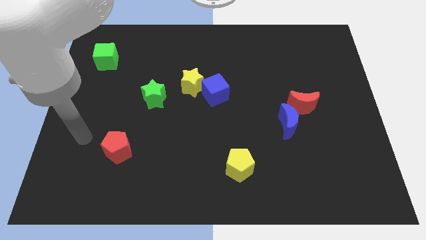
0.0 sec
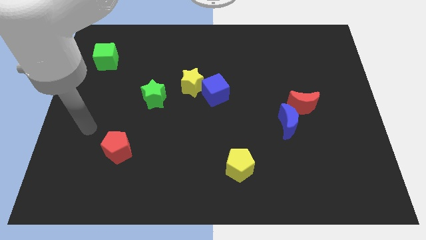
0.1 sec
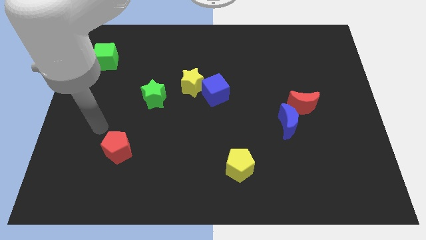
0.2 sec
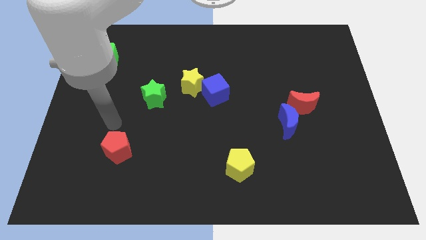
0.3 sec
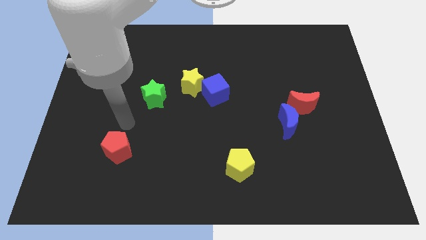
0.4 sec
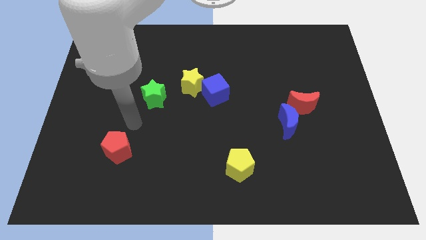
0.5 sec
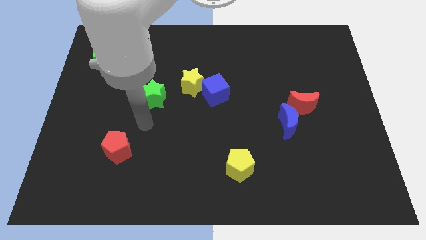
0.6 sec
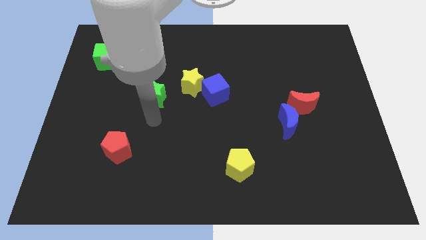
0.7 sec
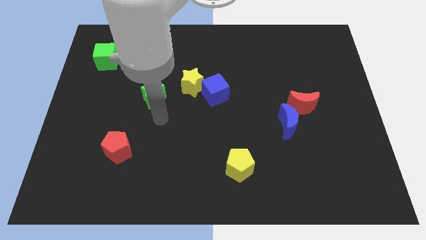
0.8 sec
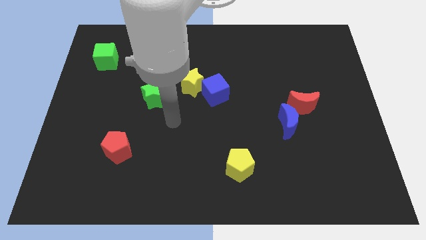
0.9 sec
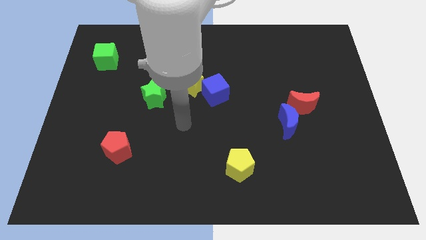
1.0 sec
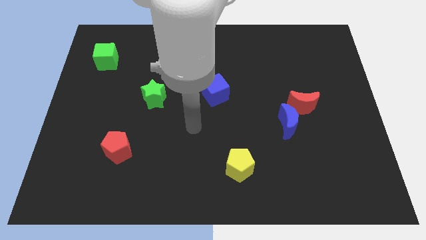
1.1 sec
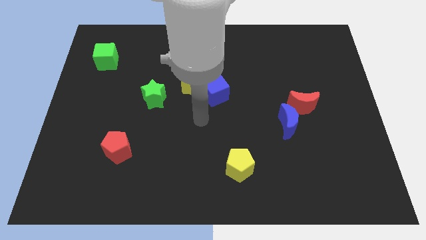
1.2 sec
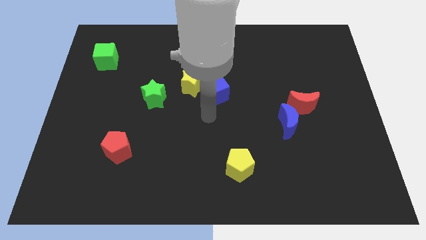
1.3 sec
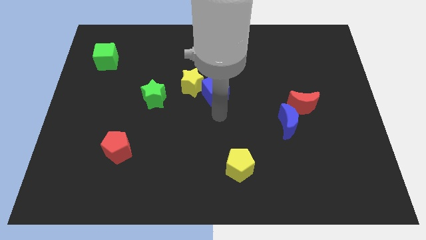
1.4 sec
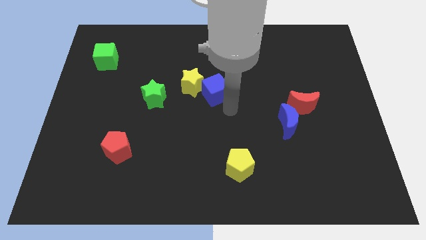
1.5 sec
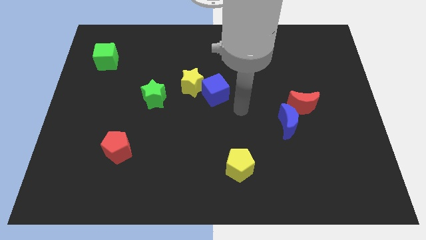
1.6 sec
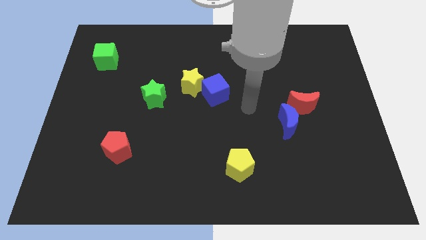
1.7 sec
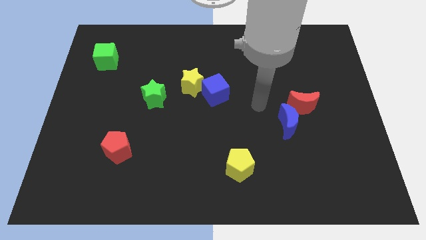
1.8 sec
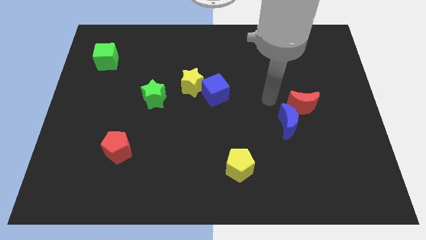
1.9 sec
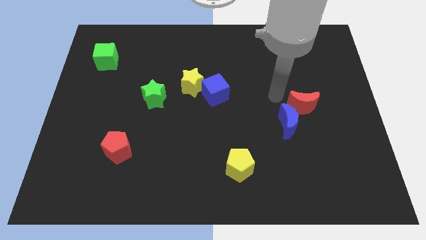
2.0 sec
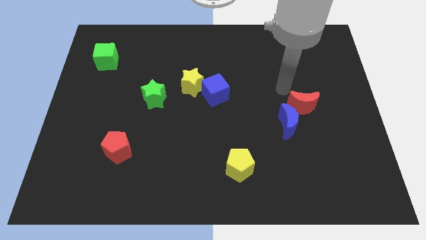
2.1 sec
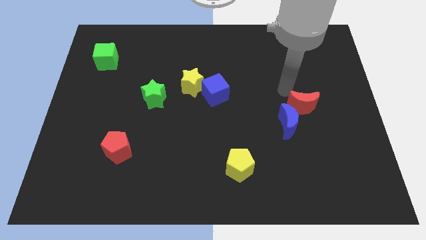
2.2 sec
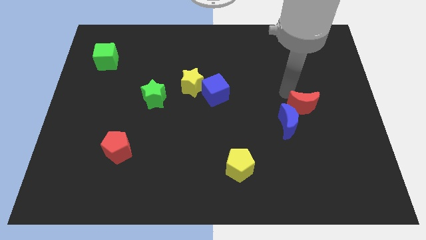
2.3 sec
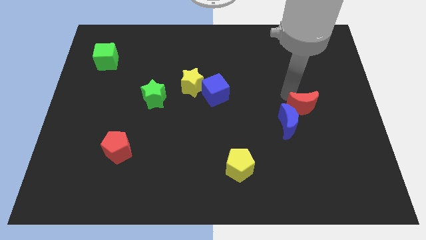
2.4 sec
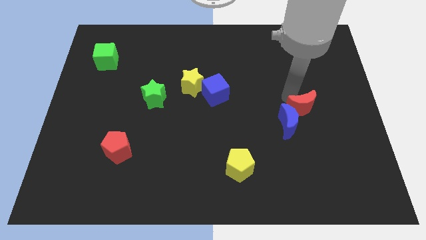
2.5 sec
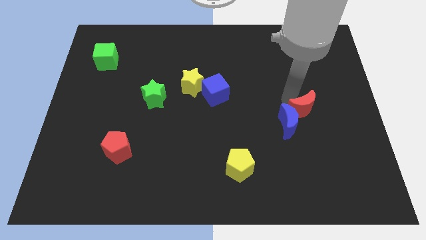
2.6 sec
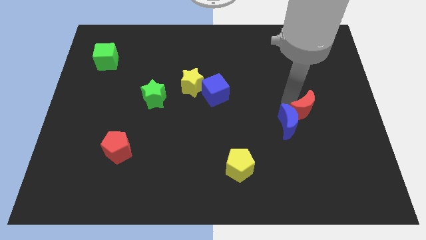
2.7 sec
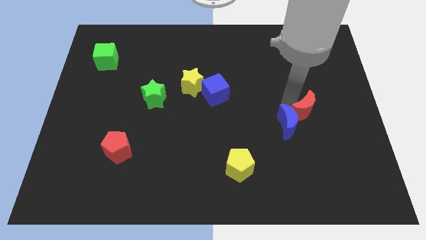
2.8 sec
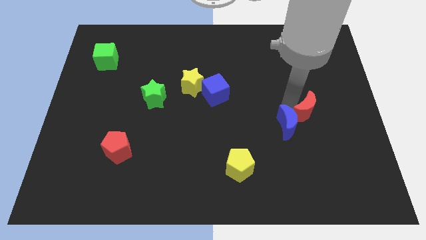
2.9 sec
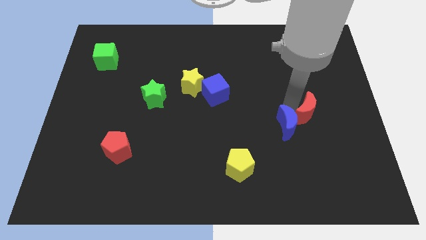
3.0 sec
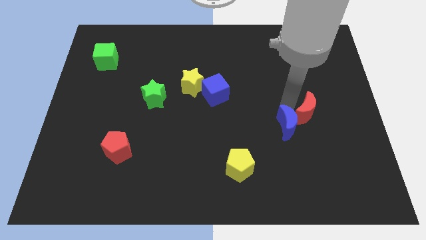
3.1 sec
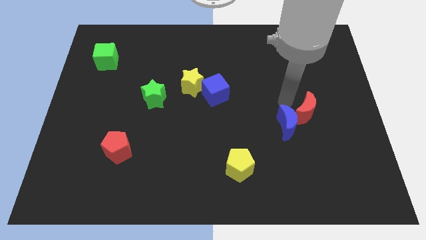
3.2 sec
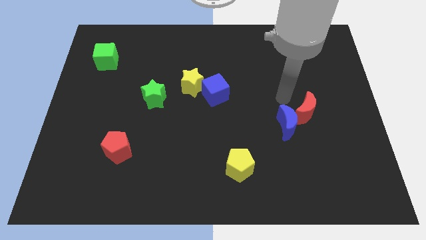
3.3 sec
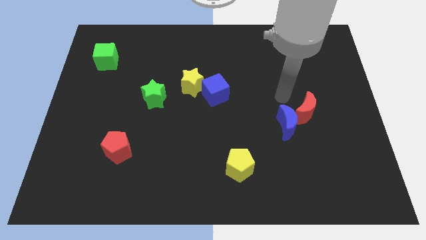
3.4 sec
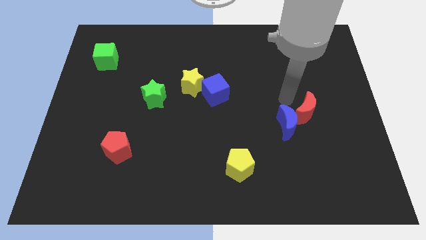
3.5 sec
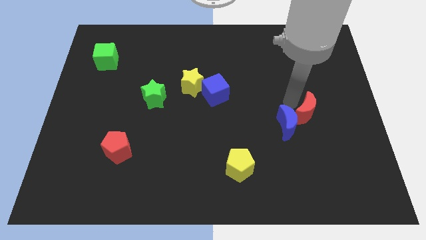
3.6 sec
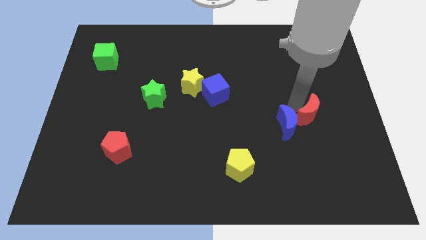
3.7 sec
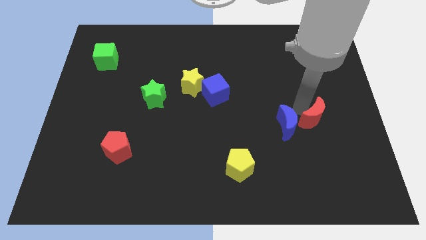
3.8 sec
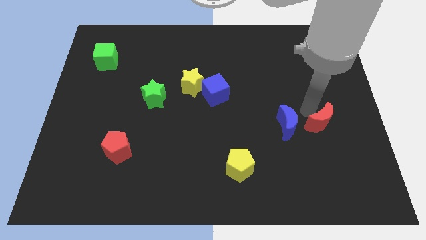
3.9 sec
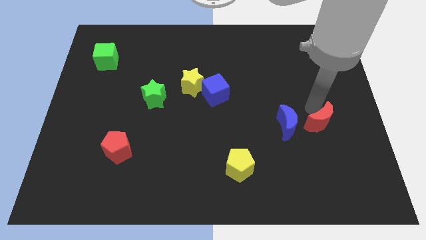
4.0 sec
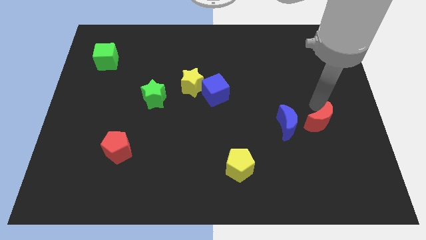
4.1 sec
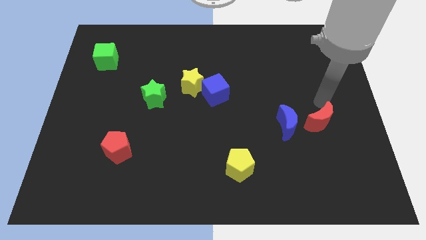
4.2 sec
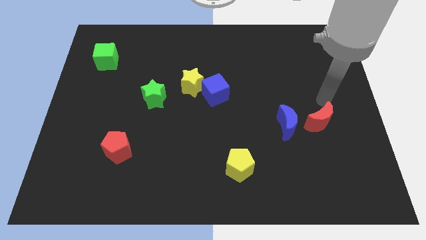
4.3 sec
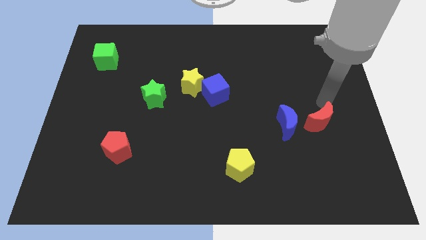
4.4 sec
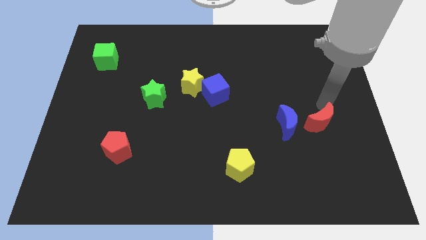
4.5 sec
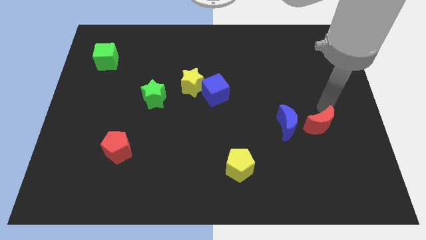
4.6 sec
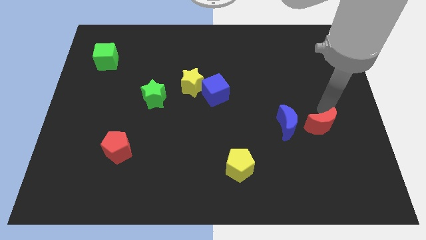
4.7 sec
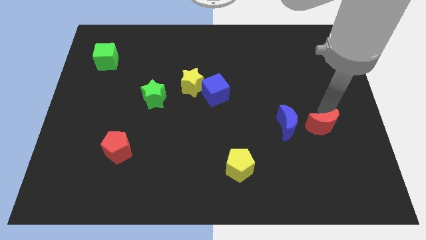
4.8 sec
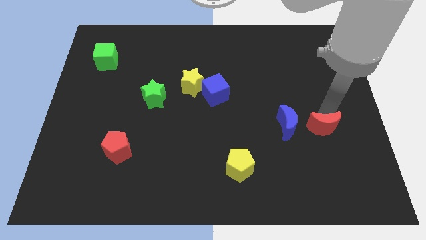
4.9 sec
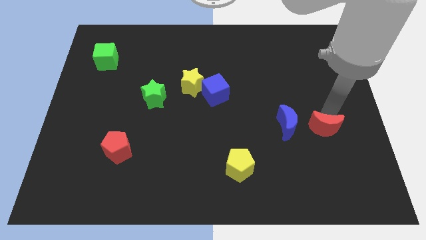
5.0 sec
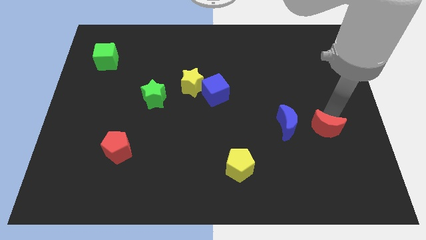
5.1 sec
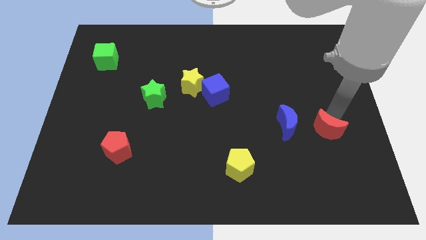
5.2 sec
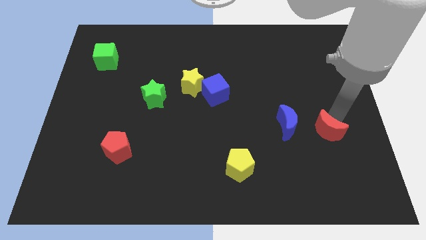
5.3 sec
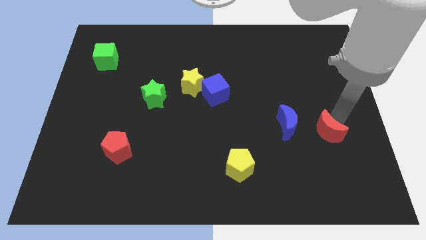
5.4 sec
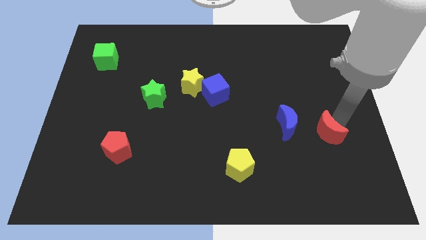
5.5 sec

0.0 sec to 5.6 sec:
slide the red moon somewhat down

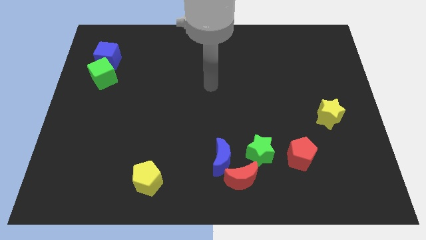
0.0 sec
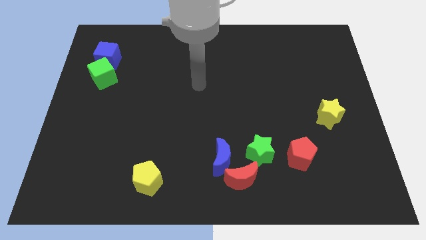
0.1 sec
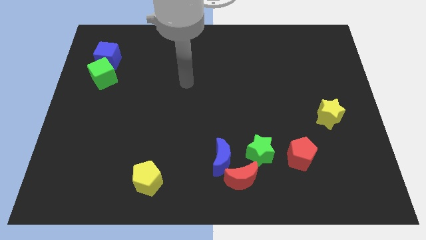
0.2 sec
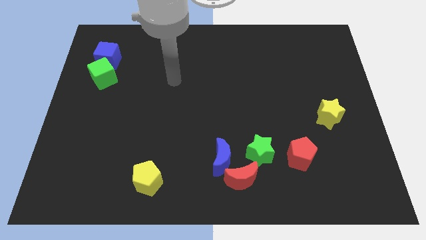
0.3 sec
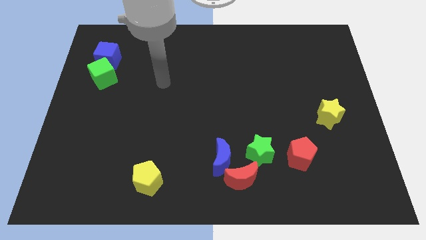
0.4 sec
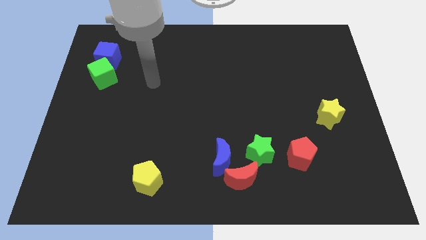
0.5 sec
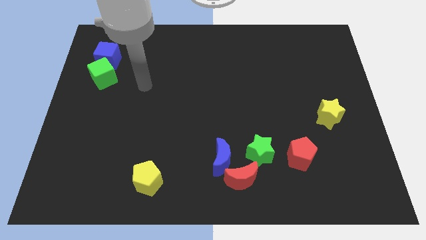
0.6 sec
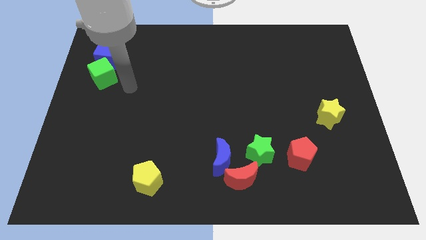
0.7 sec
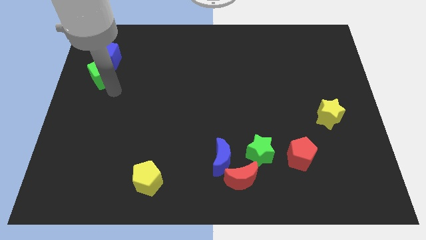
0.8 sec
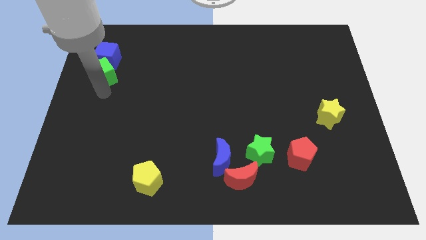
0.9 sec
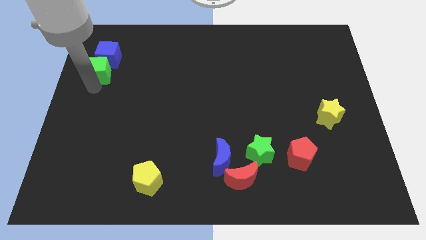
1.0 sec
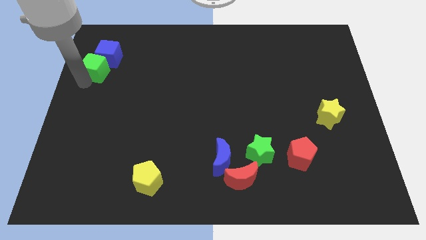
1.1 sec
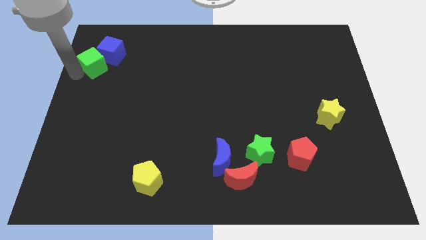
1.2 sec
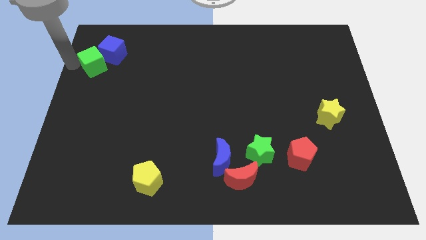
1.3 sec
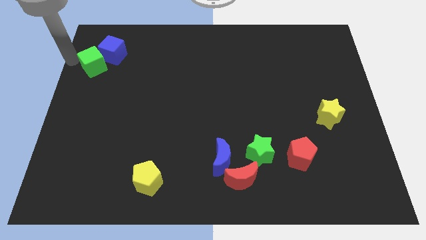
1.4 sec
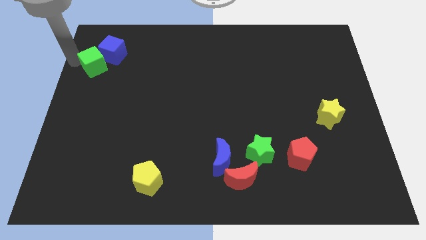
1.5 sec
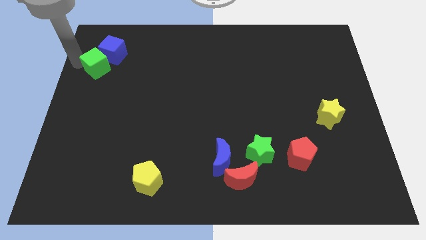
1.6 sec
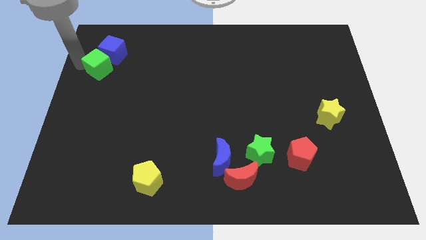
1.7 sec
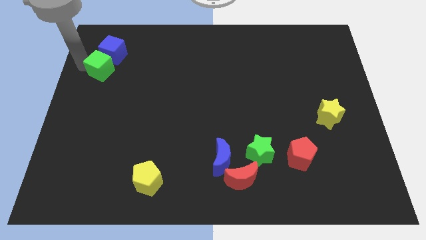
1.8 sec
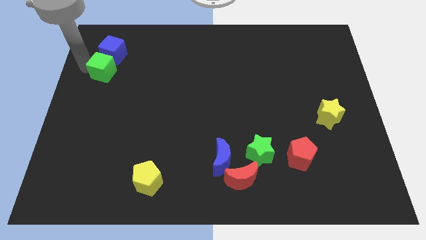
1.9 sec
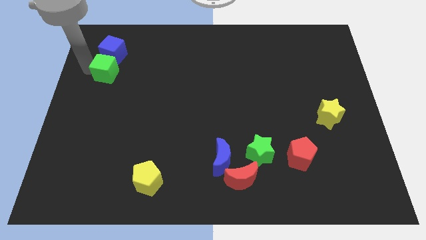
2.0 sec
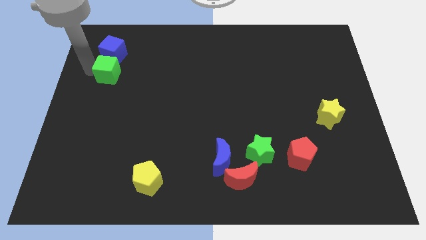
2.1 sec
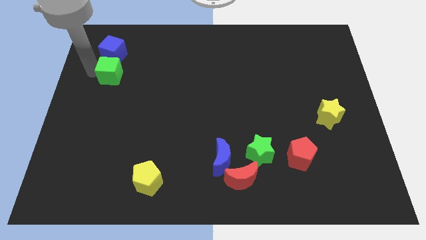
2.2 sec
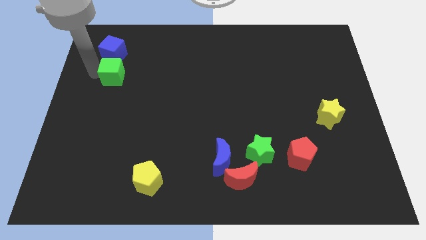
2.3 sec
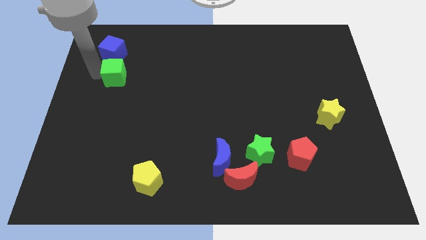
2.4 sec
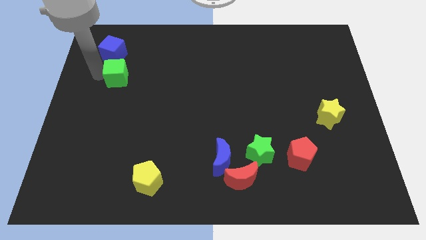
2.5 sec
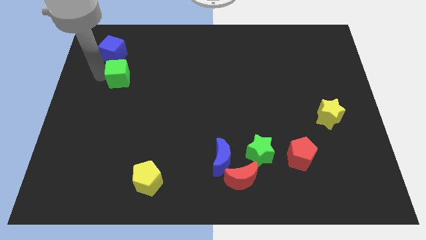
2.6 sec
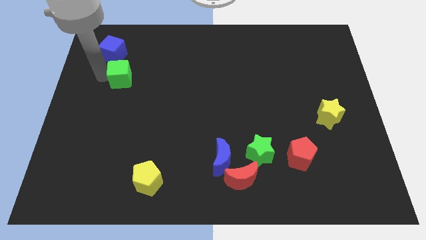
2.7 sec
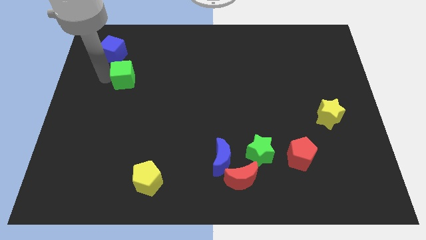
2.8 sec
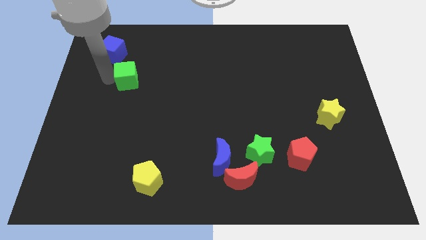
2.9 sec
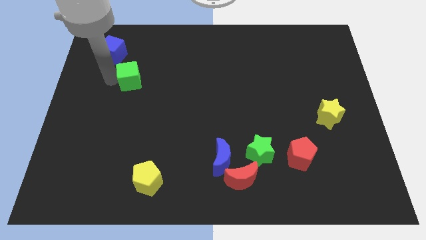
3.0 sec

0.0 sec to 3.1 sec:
push the green cube a little right
